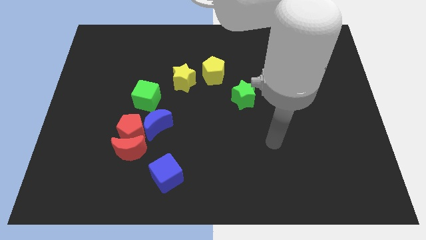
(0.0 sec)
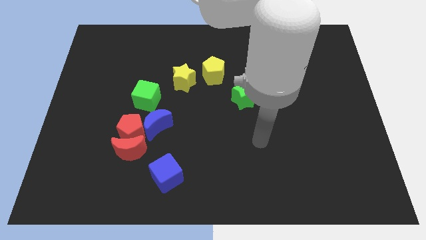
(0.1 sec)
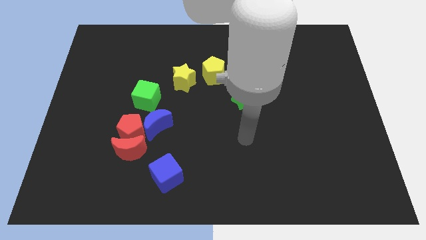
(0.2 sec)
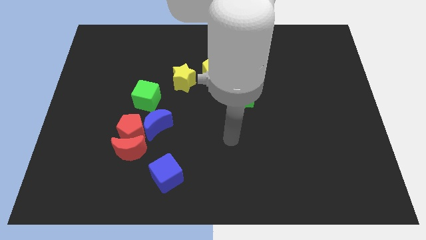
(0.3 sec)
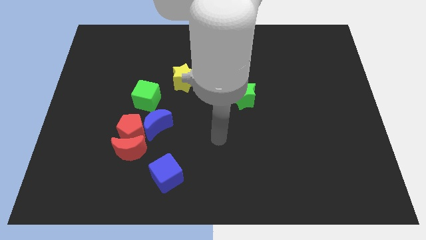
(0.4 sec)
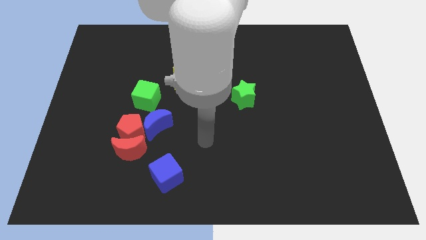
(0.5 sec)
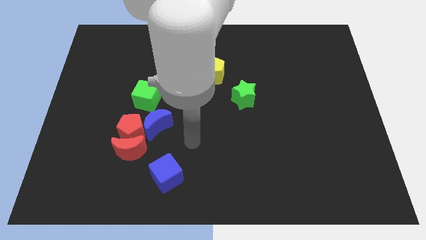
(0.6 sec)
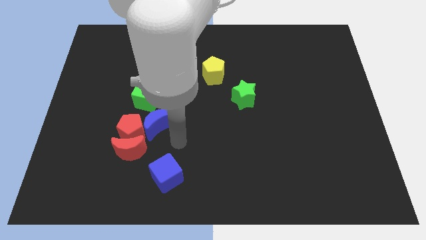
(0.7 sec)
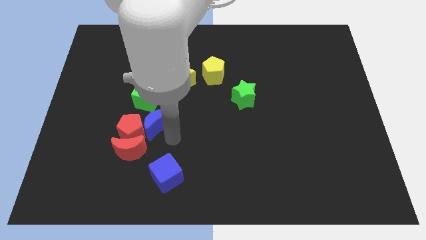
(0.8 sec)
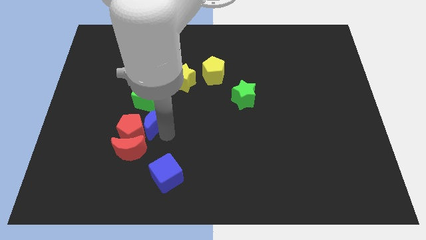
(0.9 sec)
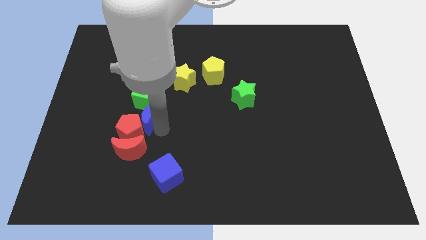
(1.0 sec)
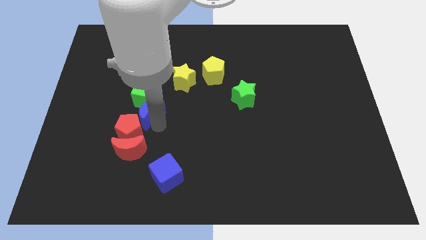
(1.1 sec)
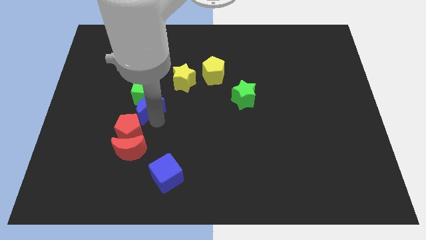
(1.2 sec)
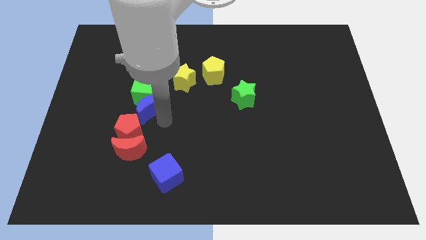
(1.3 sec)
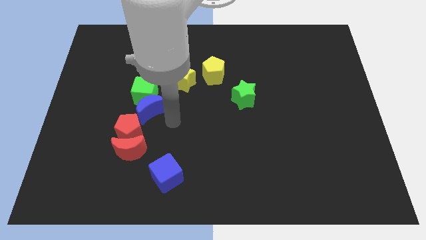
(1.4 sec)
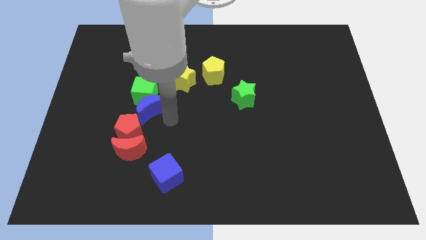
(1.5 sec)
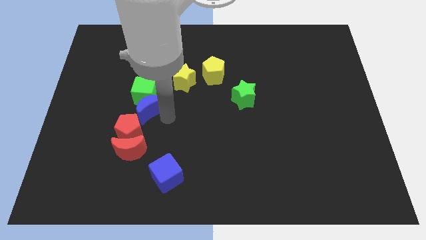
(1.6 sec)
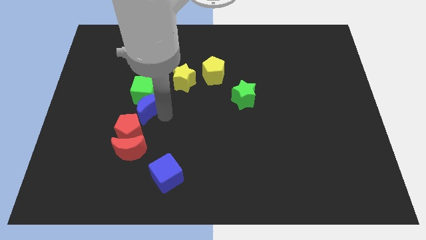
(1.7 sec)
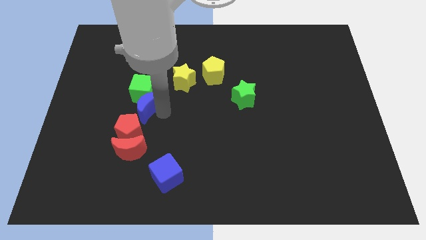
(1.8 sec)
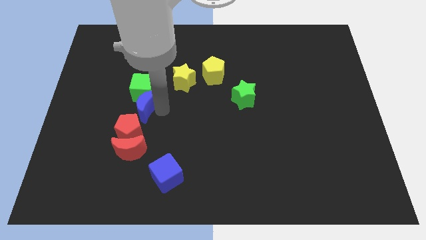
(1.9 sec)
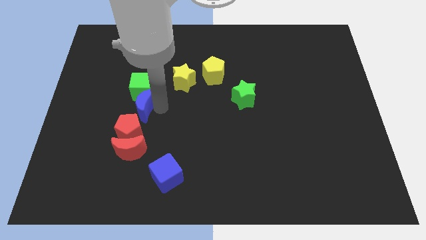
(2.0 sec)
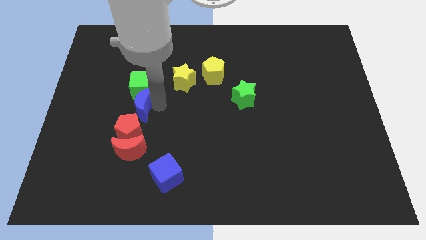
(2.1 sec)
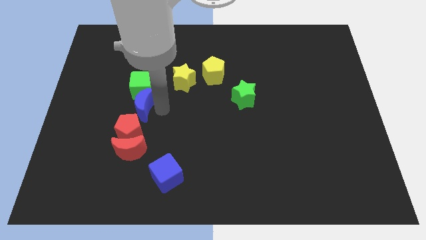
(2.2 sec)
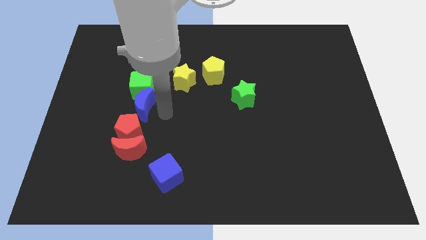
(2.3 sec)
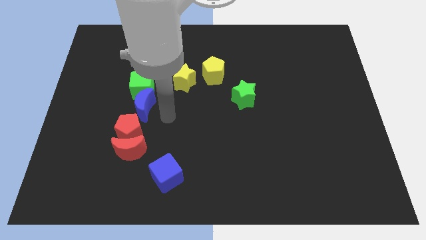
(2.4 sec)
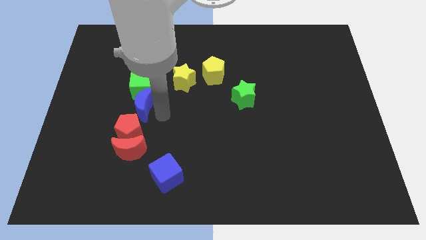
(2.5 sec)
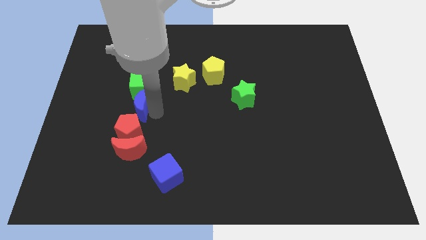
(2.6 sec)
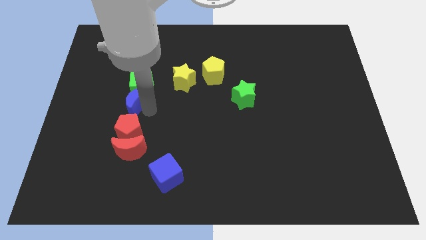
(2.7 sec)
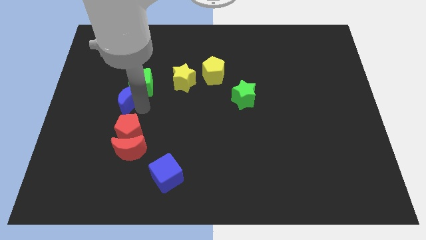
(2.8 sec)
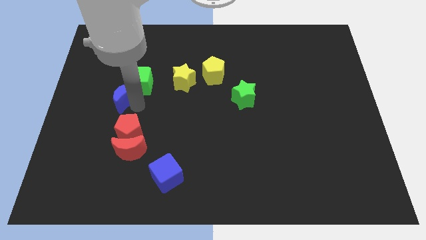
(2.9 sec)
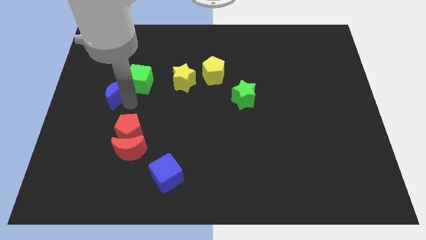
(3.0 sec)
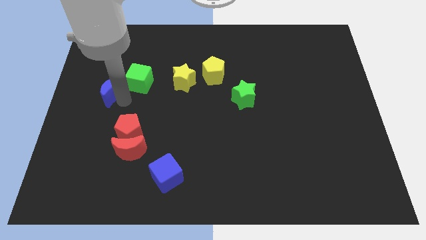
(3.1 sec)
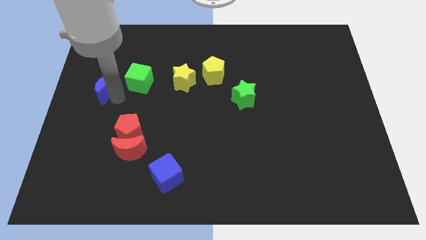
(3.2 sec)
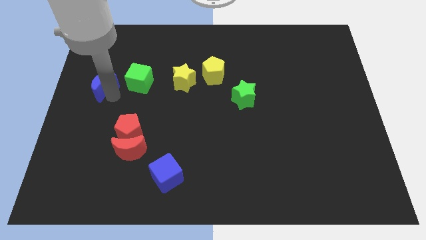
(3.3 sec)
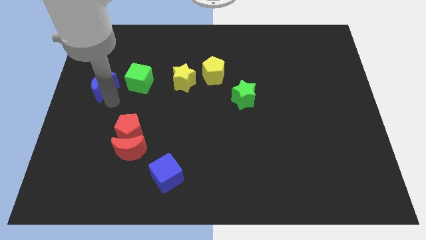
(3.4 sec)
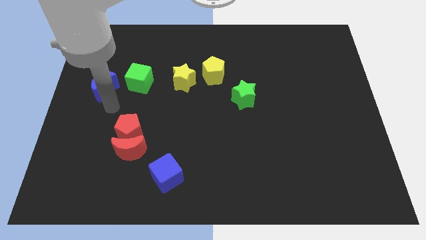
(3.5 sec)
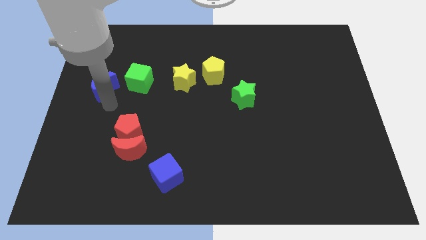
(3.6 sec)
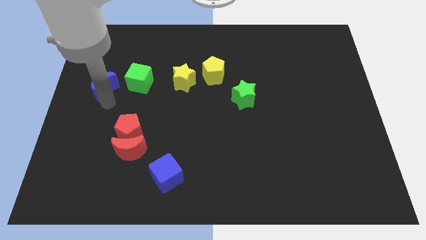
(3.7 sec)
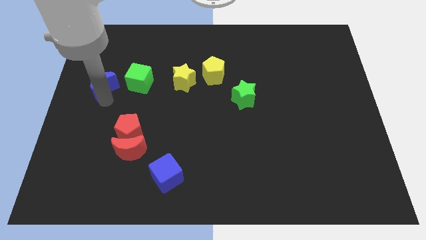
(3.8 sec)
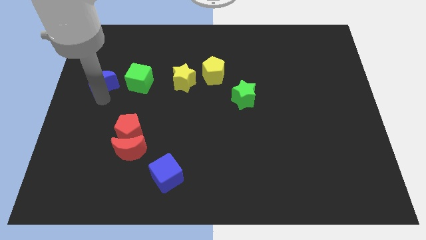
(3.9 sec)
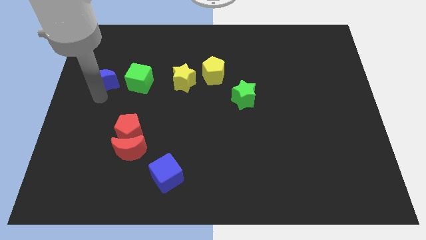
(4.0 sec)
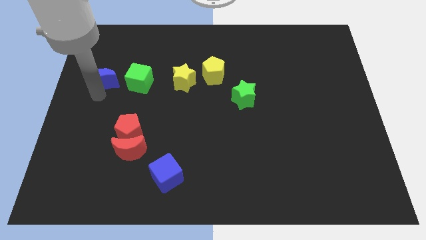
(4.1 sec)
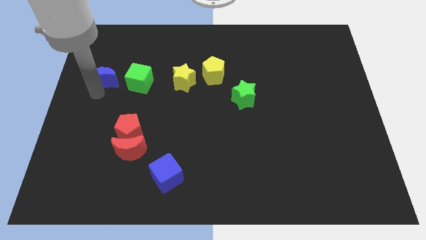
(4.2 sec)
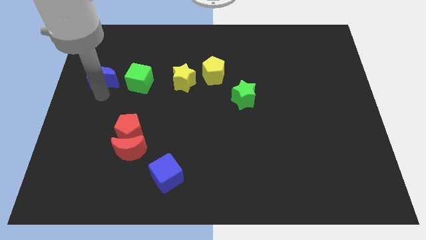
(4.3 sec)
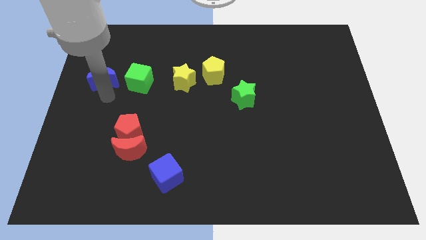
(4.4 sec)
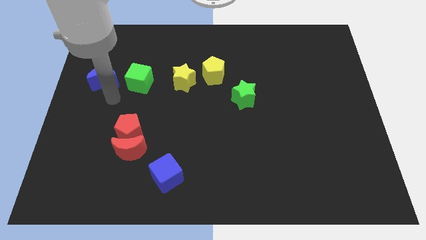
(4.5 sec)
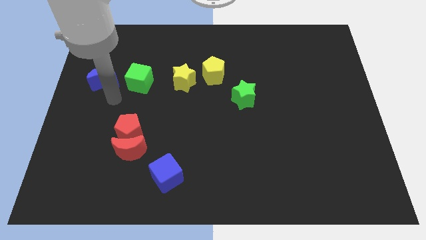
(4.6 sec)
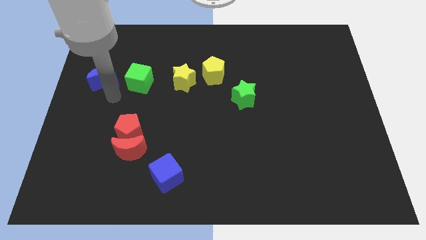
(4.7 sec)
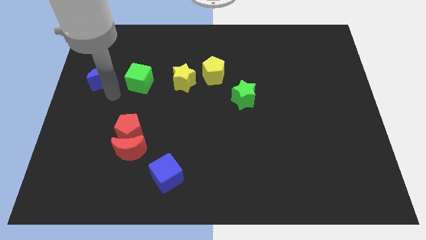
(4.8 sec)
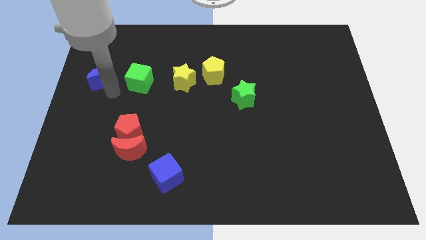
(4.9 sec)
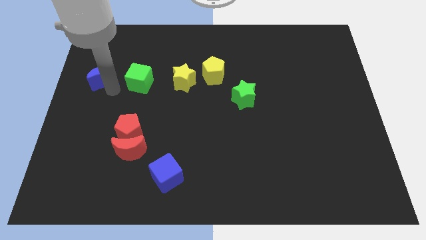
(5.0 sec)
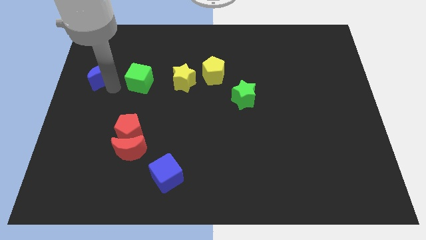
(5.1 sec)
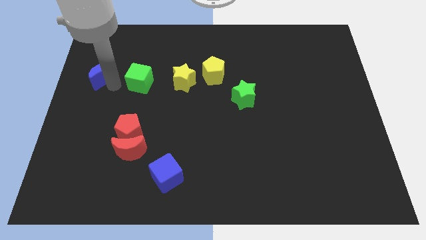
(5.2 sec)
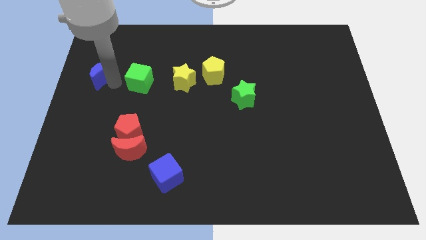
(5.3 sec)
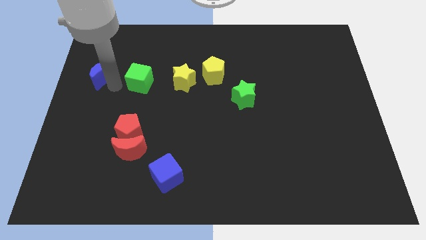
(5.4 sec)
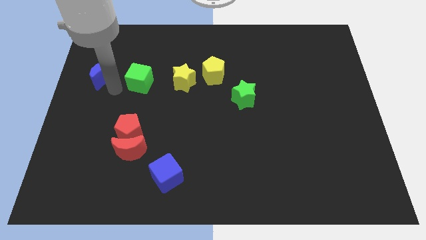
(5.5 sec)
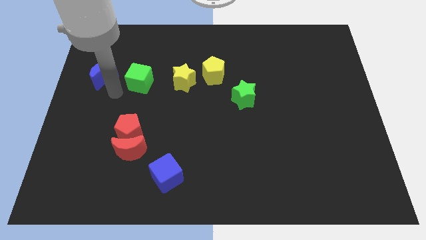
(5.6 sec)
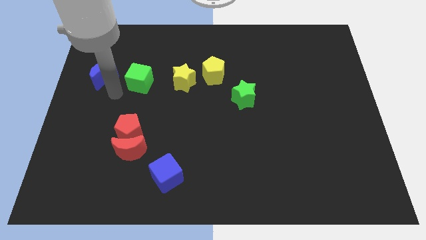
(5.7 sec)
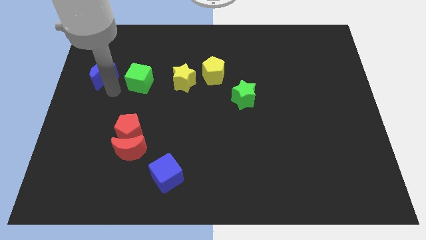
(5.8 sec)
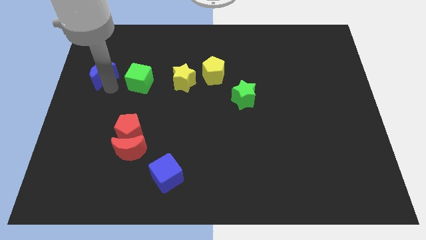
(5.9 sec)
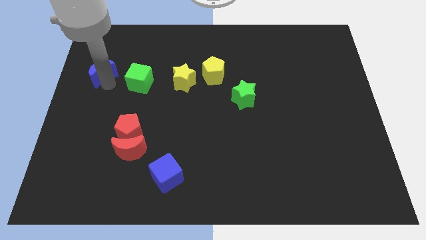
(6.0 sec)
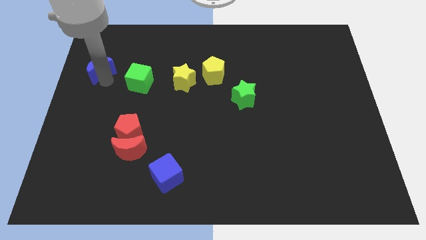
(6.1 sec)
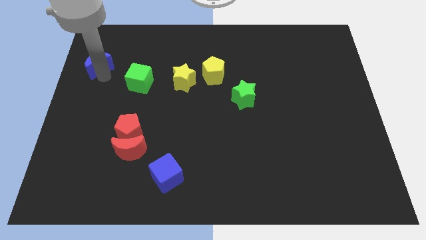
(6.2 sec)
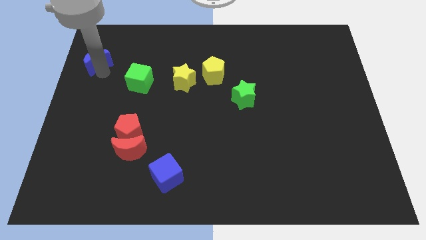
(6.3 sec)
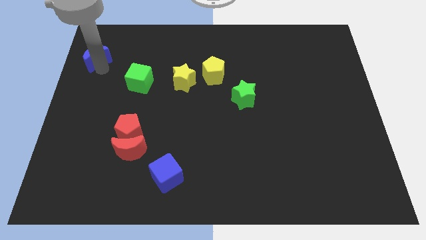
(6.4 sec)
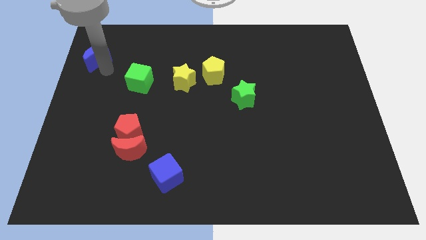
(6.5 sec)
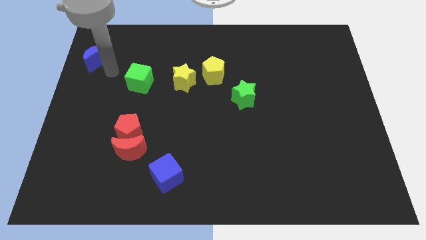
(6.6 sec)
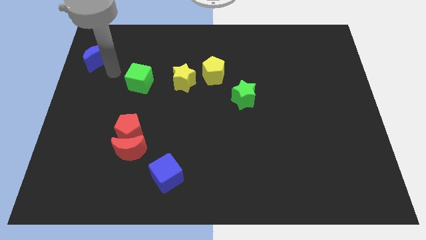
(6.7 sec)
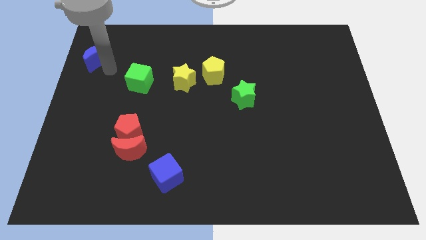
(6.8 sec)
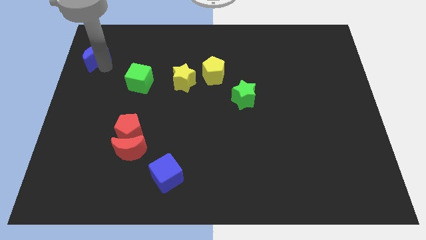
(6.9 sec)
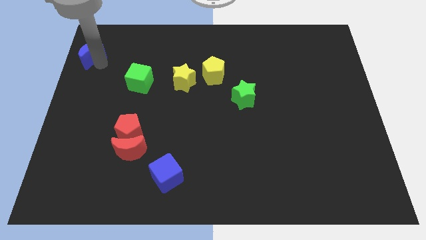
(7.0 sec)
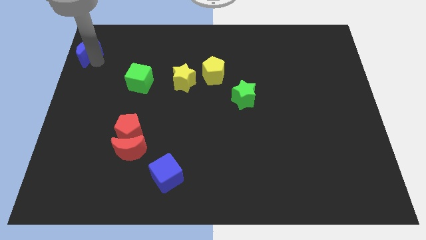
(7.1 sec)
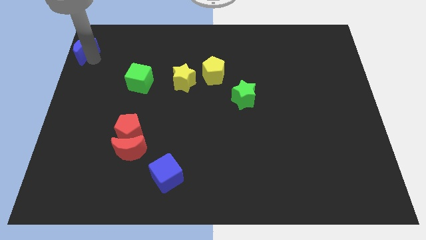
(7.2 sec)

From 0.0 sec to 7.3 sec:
move the blue moon to the top left
